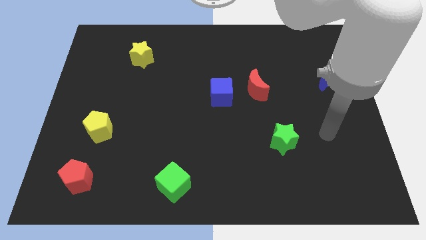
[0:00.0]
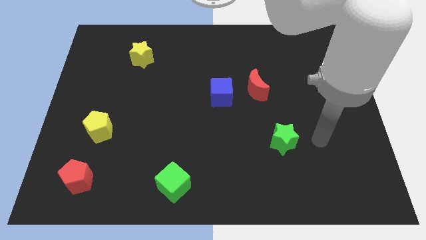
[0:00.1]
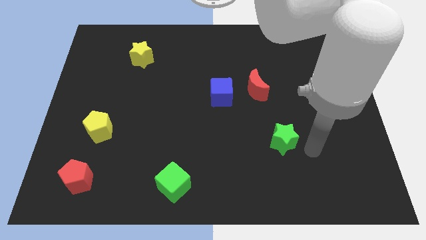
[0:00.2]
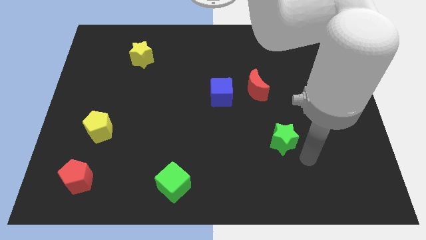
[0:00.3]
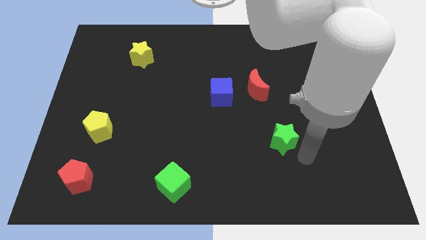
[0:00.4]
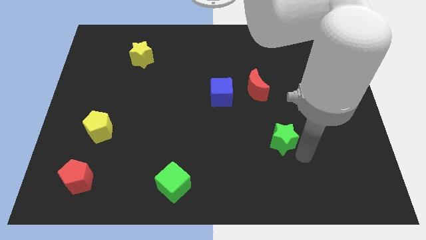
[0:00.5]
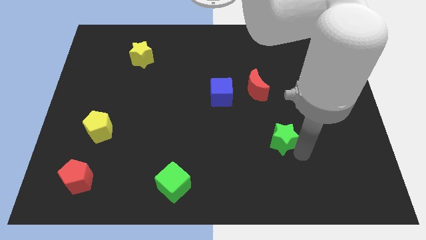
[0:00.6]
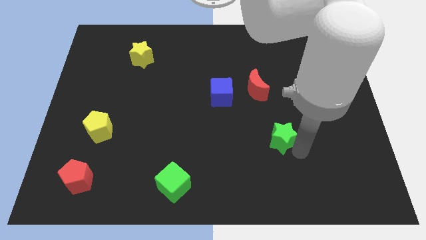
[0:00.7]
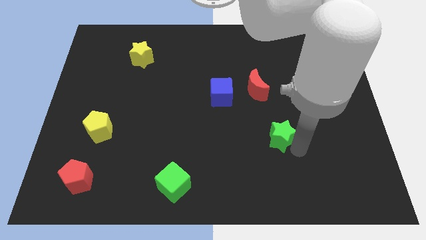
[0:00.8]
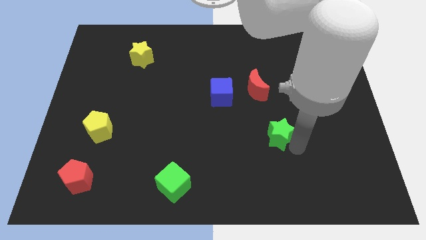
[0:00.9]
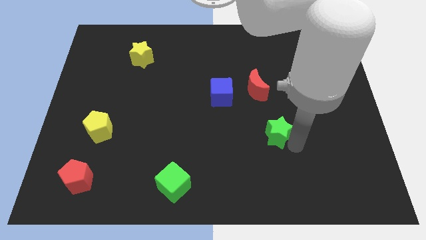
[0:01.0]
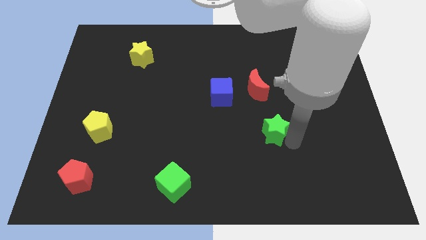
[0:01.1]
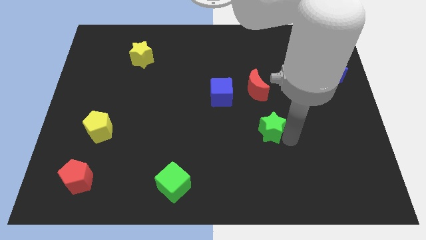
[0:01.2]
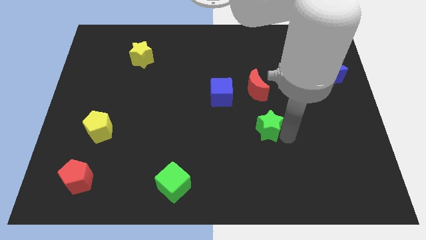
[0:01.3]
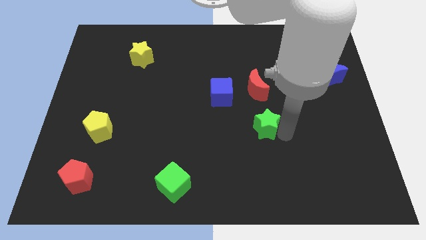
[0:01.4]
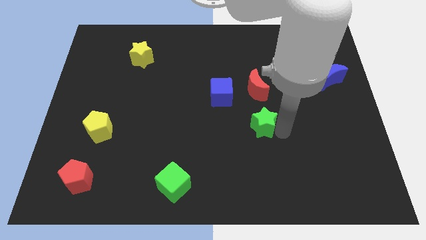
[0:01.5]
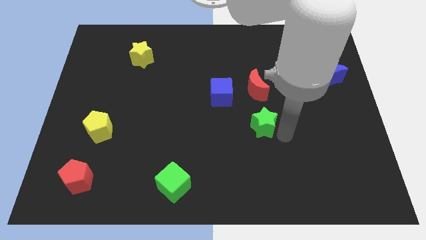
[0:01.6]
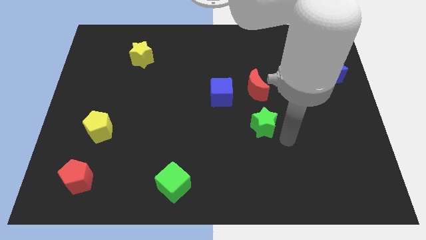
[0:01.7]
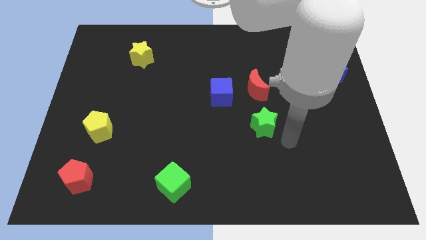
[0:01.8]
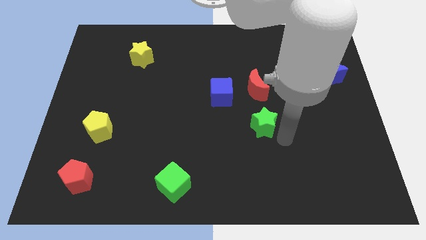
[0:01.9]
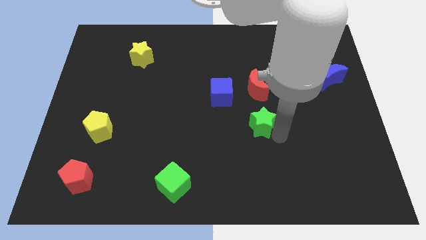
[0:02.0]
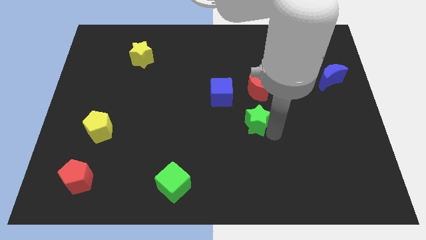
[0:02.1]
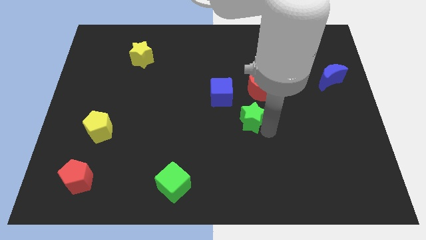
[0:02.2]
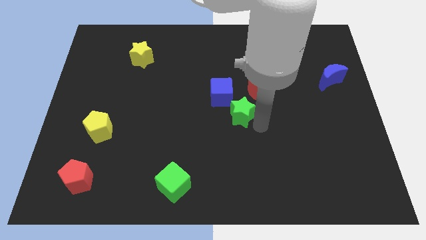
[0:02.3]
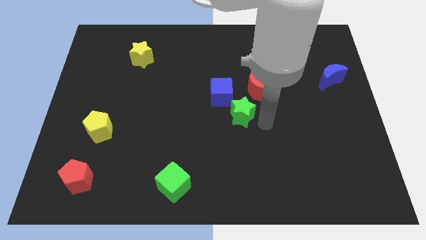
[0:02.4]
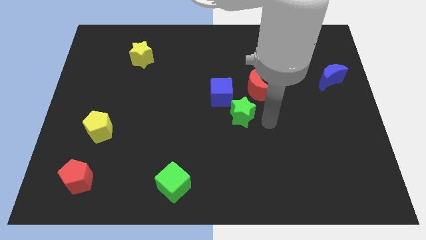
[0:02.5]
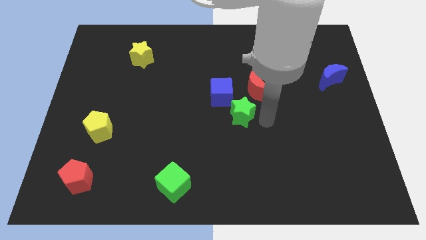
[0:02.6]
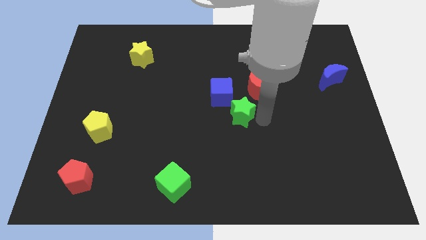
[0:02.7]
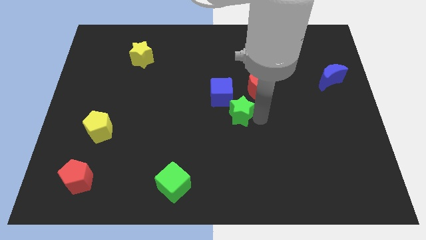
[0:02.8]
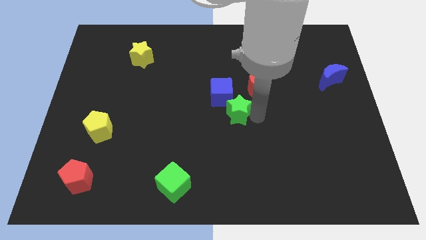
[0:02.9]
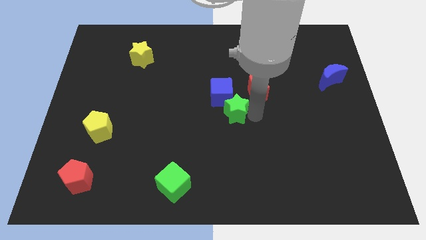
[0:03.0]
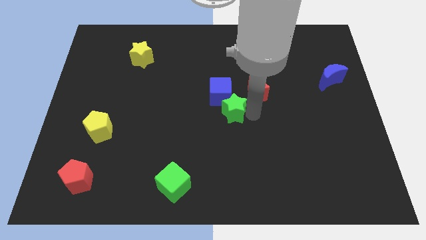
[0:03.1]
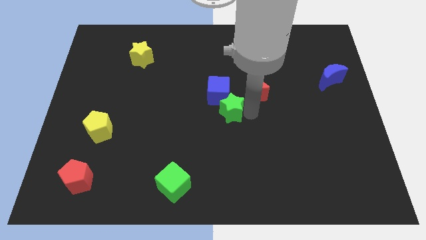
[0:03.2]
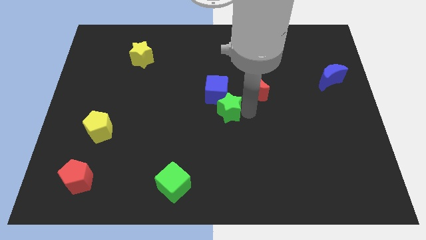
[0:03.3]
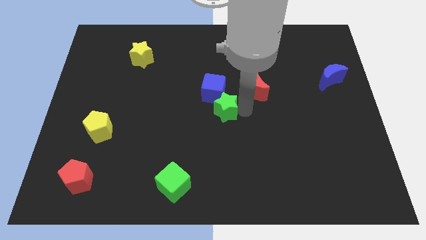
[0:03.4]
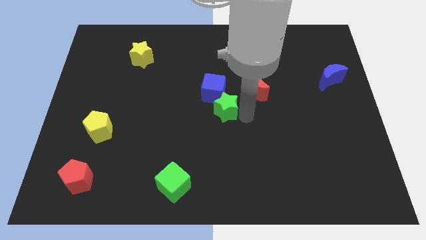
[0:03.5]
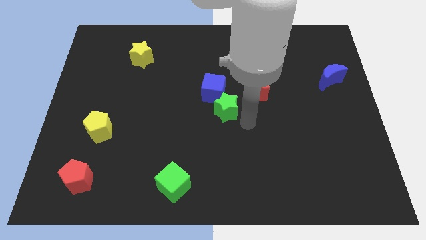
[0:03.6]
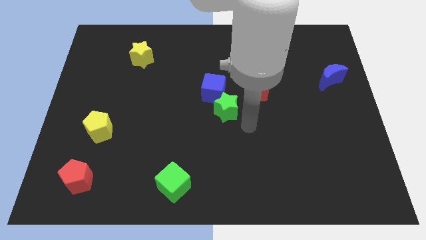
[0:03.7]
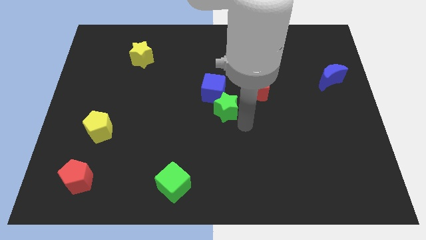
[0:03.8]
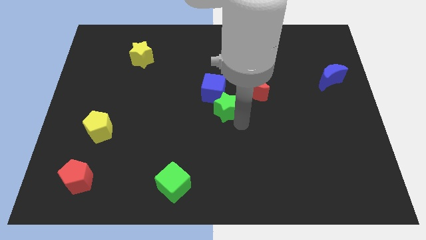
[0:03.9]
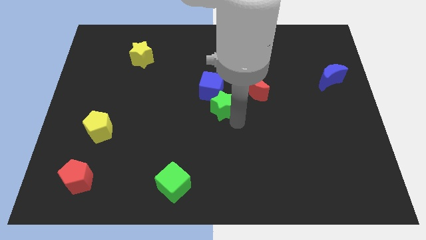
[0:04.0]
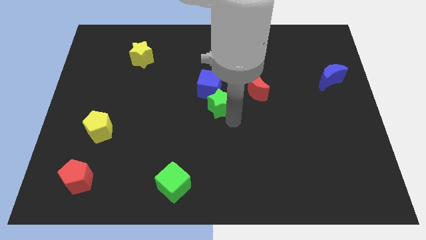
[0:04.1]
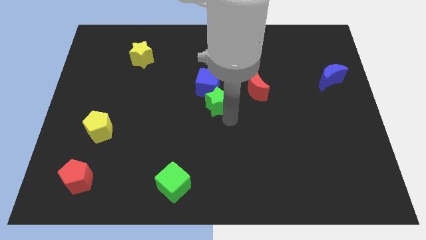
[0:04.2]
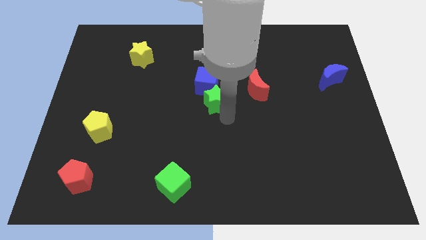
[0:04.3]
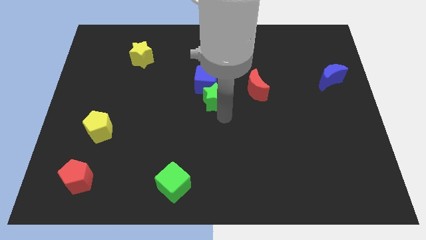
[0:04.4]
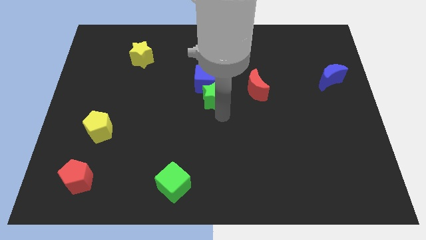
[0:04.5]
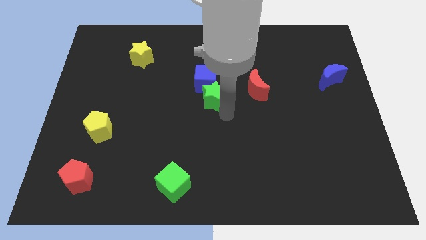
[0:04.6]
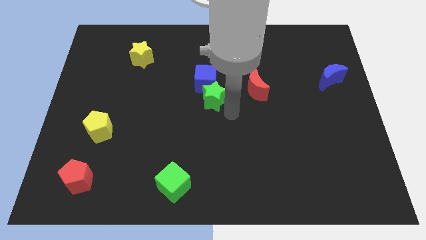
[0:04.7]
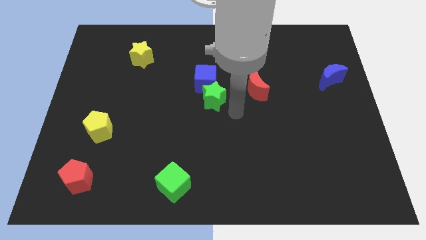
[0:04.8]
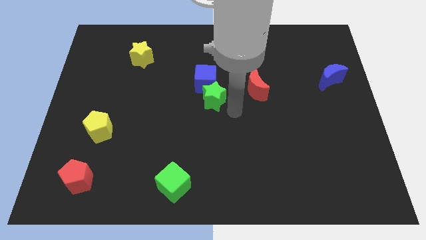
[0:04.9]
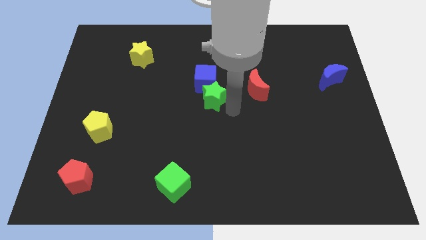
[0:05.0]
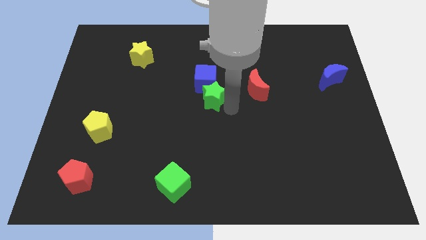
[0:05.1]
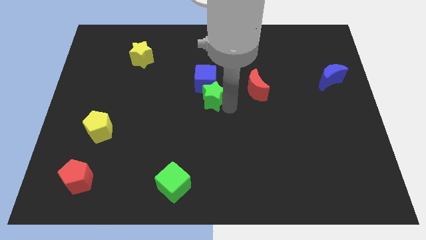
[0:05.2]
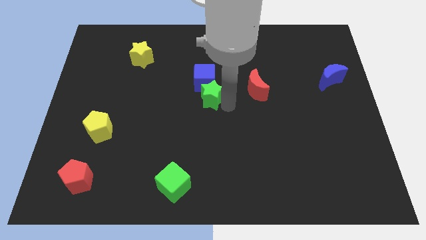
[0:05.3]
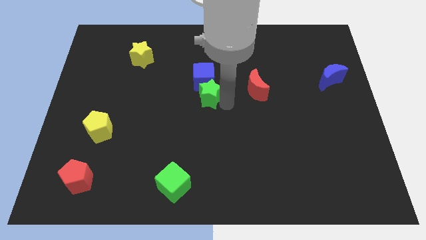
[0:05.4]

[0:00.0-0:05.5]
slide the green star up and left

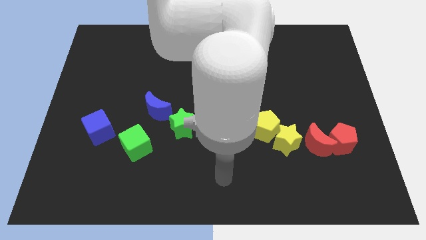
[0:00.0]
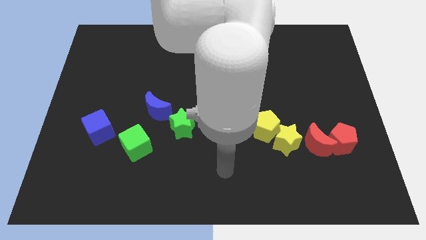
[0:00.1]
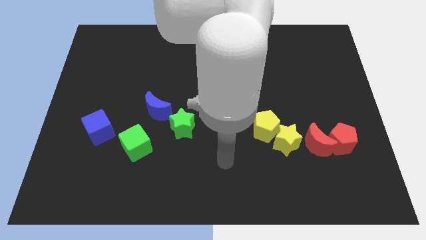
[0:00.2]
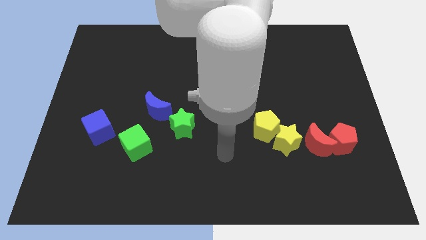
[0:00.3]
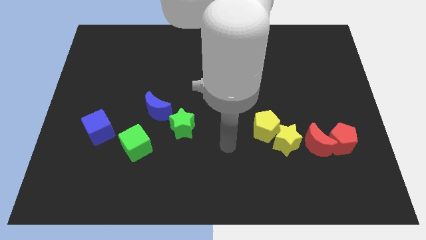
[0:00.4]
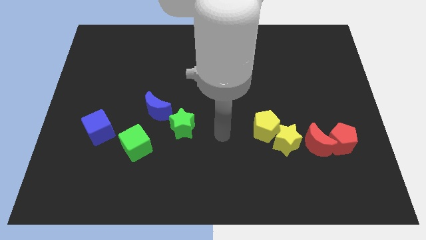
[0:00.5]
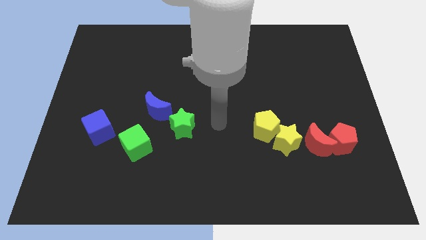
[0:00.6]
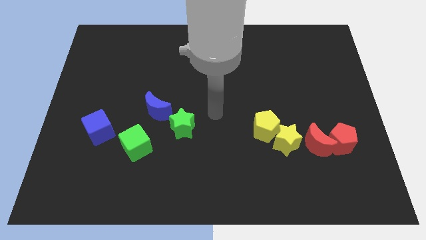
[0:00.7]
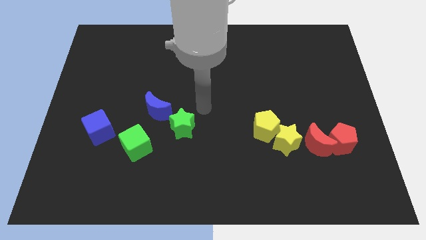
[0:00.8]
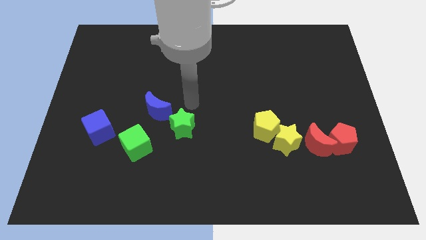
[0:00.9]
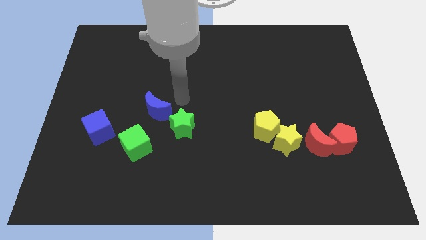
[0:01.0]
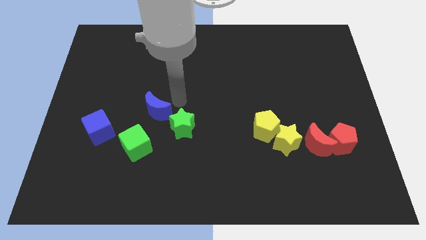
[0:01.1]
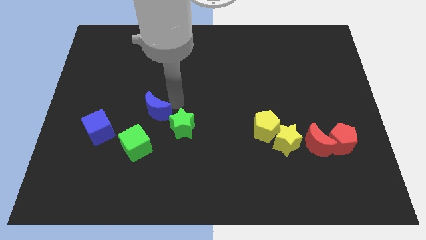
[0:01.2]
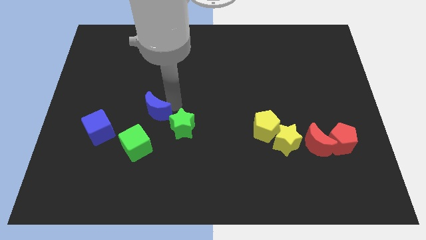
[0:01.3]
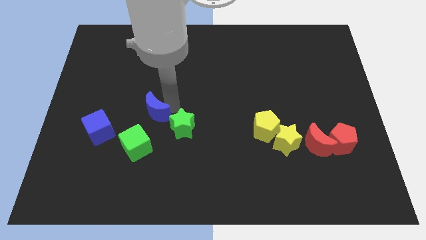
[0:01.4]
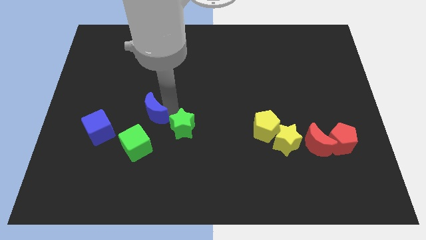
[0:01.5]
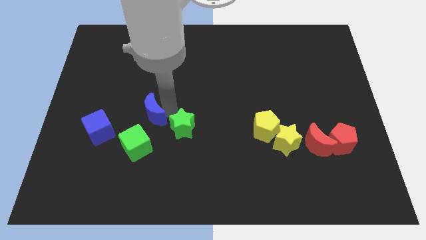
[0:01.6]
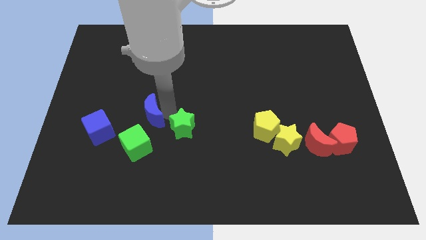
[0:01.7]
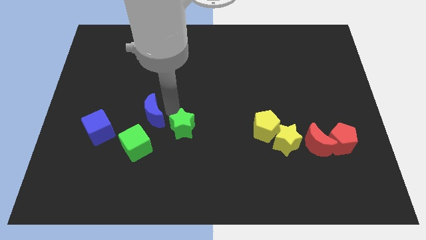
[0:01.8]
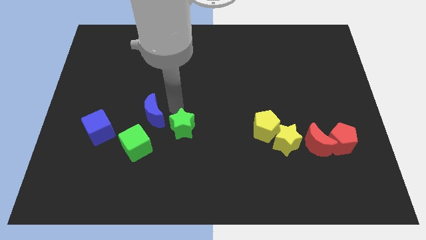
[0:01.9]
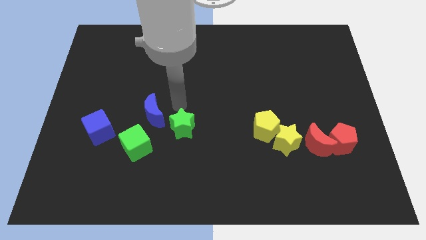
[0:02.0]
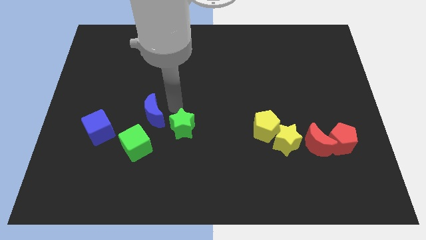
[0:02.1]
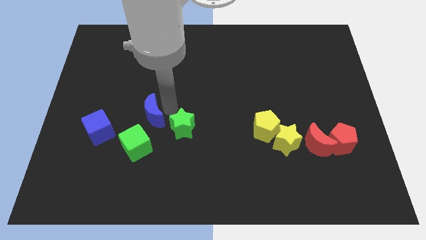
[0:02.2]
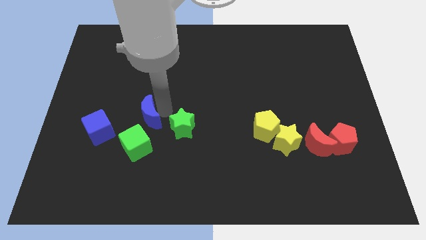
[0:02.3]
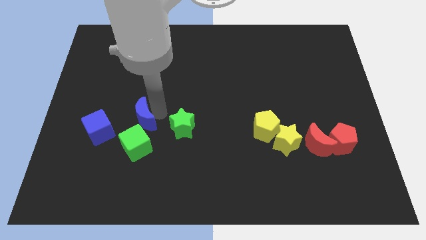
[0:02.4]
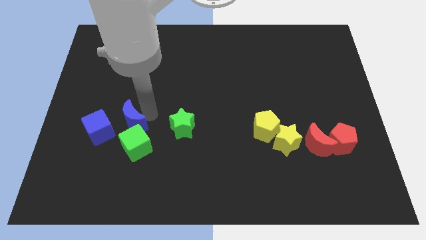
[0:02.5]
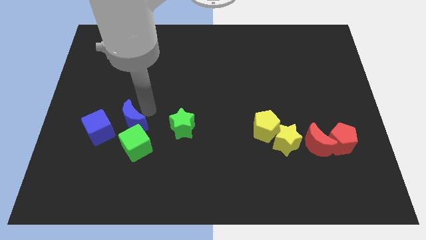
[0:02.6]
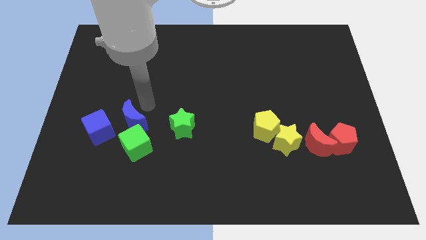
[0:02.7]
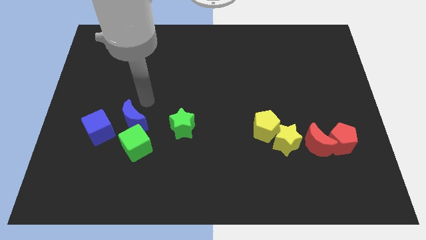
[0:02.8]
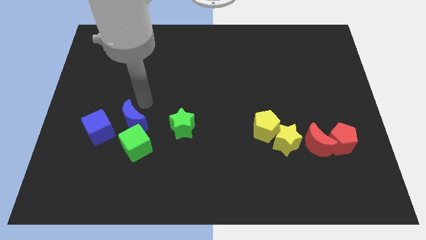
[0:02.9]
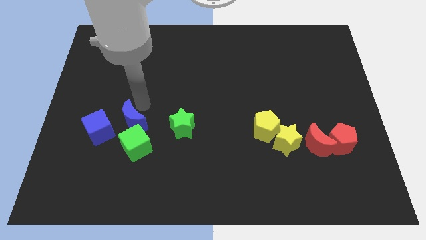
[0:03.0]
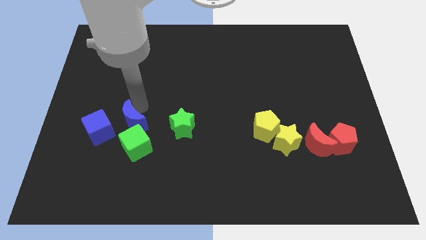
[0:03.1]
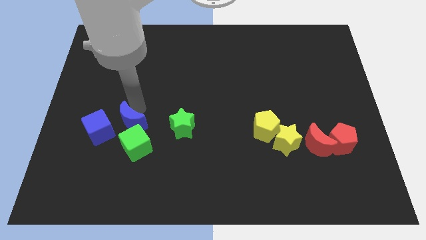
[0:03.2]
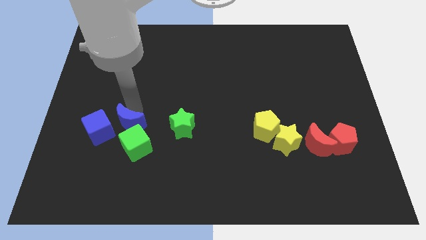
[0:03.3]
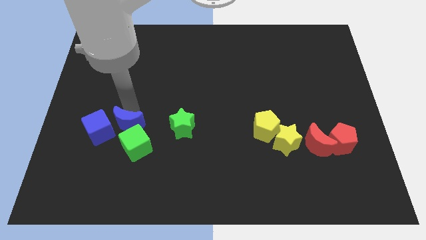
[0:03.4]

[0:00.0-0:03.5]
push the blue moon slightly down and to the left diagonally
